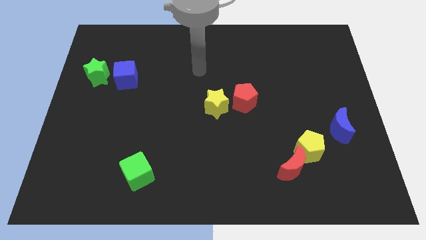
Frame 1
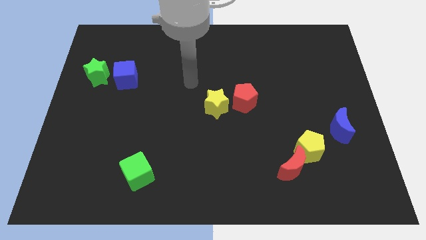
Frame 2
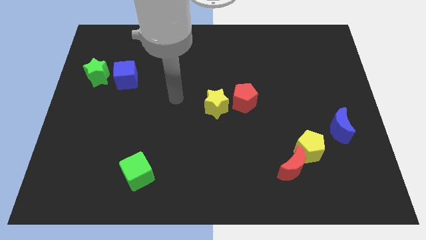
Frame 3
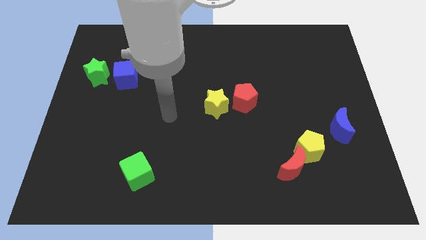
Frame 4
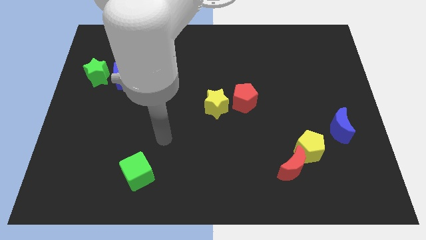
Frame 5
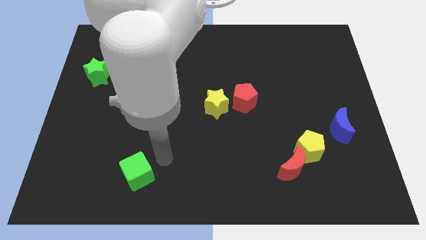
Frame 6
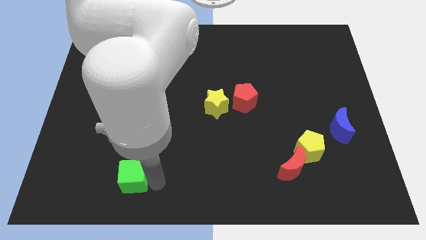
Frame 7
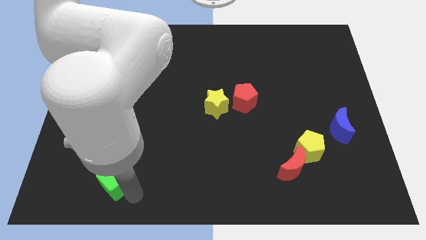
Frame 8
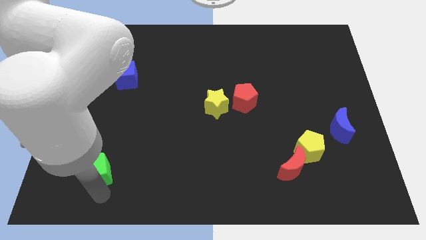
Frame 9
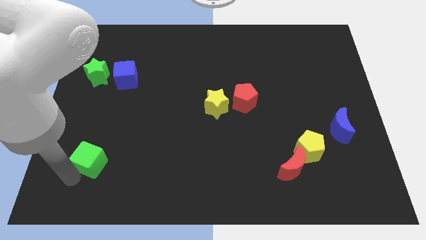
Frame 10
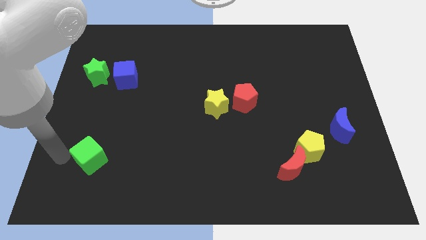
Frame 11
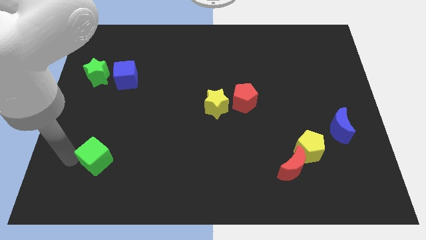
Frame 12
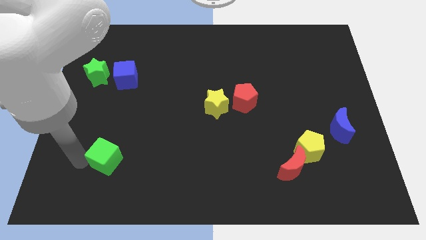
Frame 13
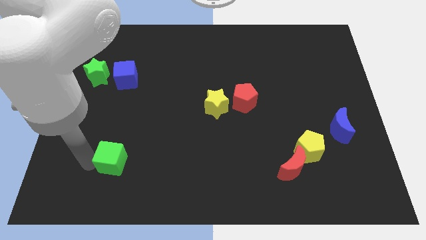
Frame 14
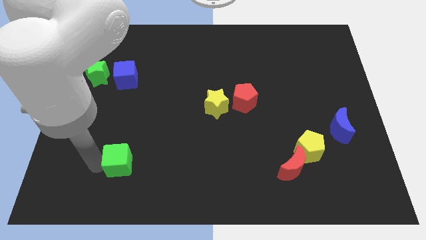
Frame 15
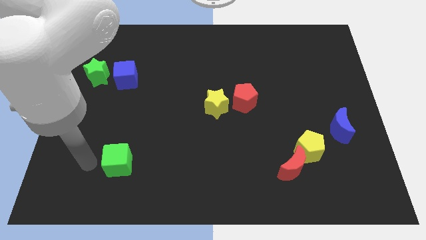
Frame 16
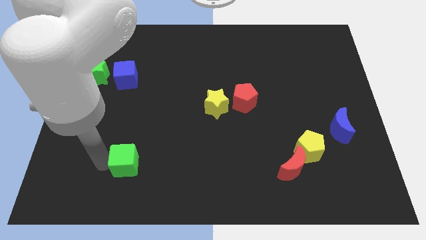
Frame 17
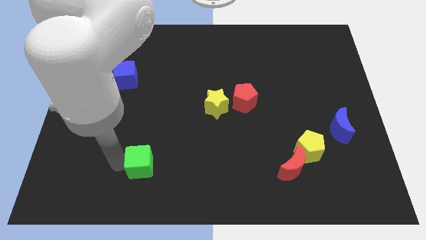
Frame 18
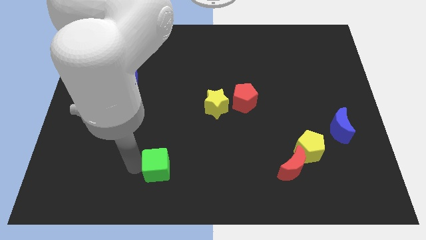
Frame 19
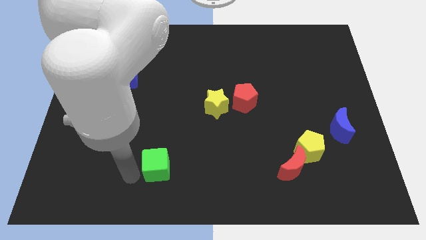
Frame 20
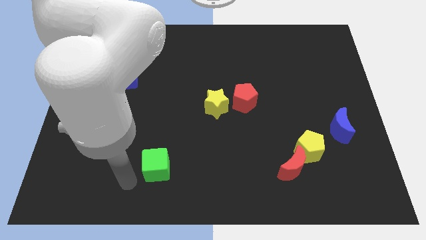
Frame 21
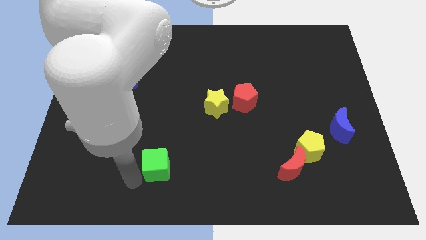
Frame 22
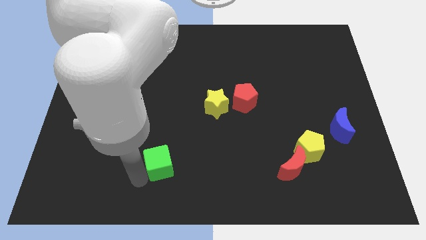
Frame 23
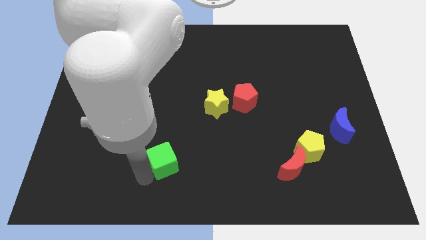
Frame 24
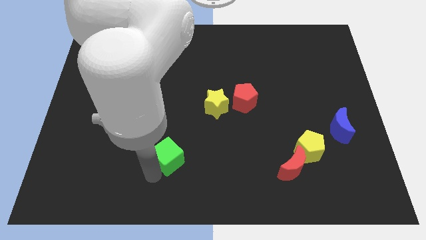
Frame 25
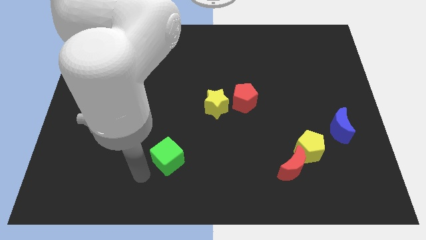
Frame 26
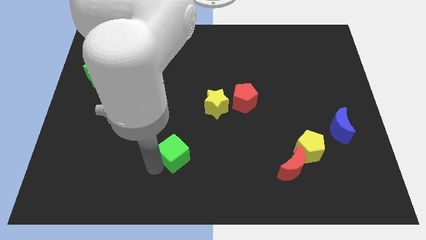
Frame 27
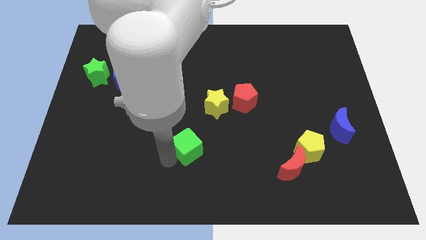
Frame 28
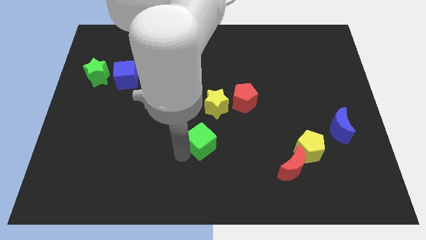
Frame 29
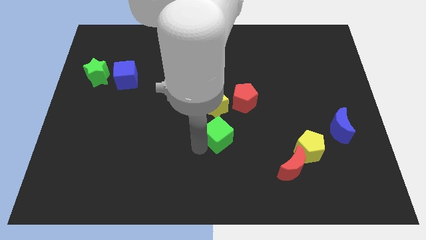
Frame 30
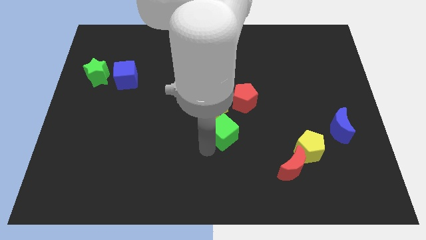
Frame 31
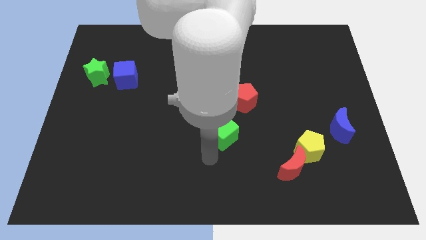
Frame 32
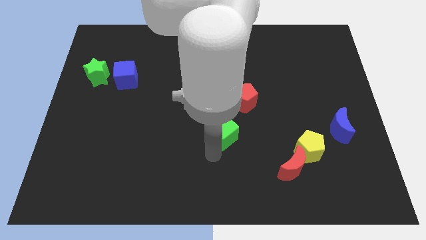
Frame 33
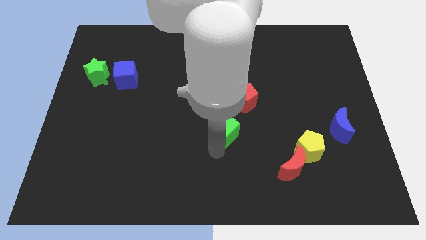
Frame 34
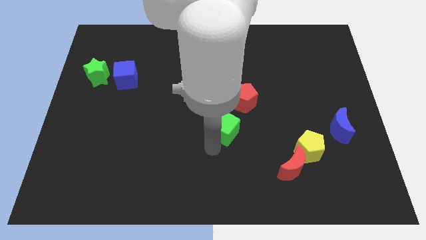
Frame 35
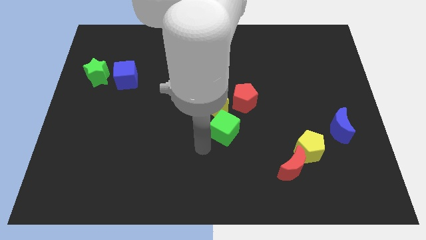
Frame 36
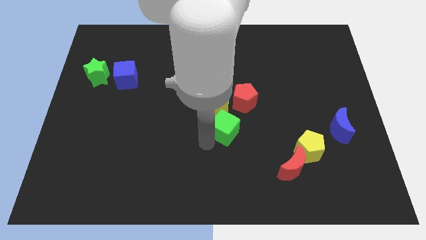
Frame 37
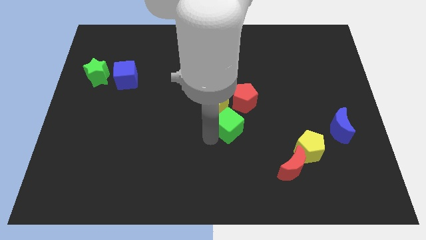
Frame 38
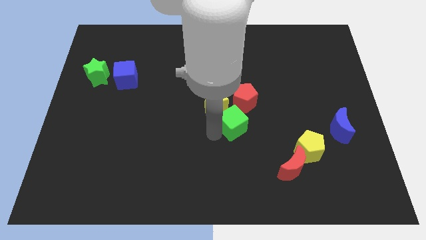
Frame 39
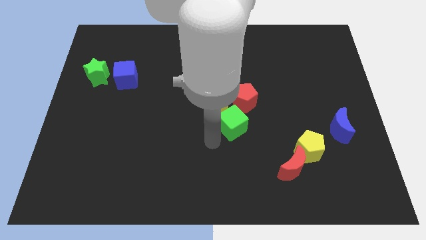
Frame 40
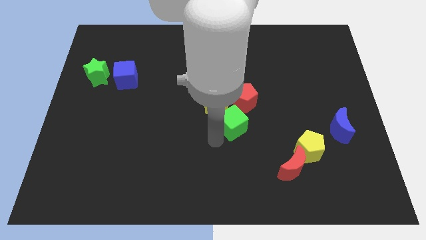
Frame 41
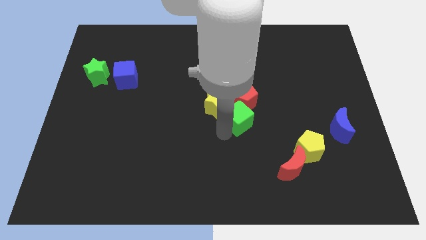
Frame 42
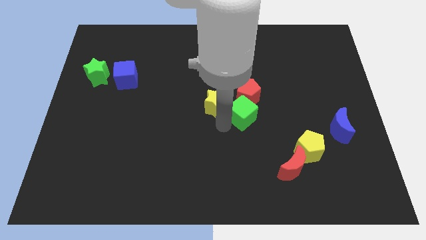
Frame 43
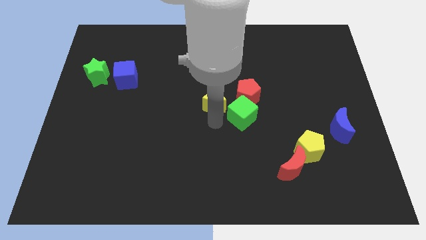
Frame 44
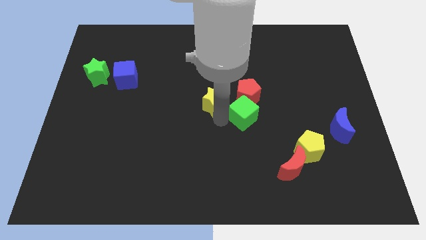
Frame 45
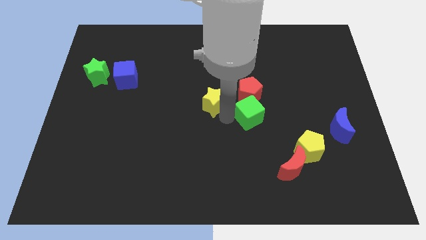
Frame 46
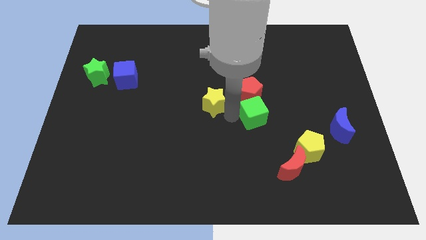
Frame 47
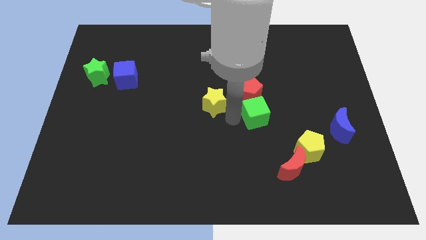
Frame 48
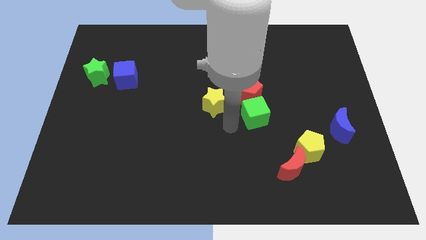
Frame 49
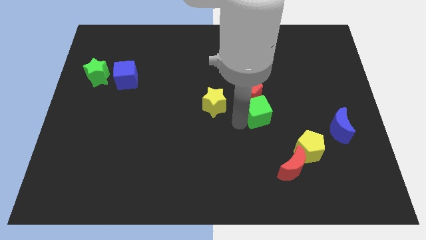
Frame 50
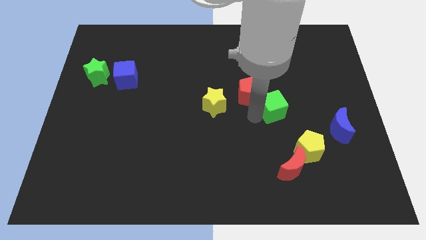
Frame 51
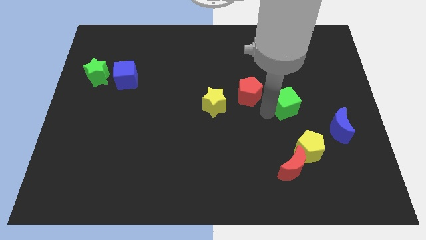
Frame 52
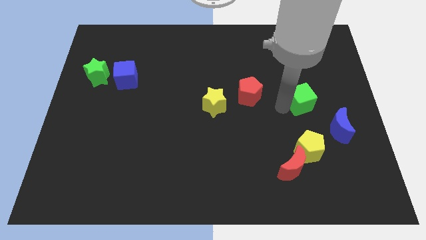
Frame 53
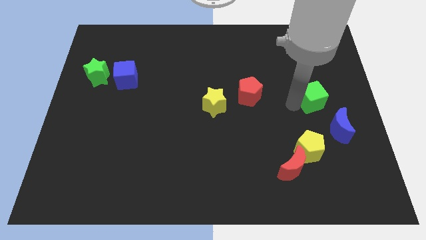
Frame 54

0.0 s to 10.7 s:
push the green cube to the top side of the blue moon

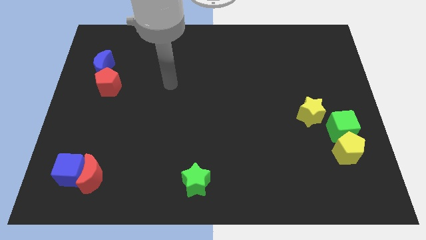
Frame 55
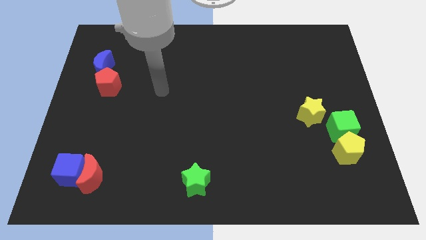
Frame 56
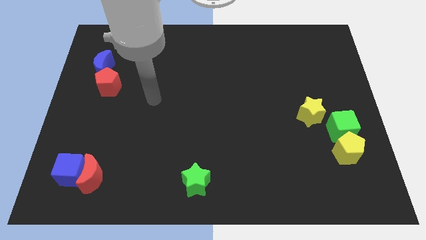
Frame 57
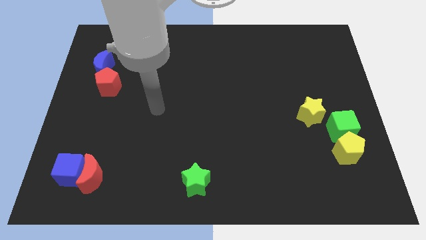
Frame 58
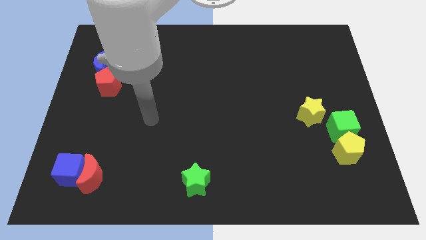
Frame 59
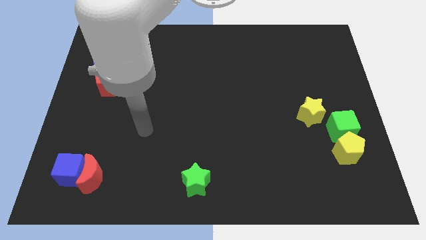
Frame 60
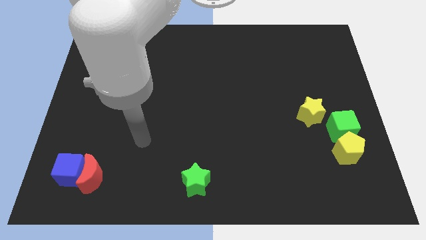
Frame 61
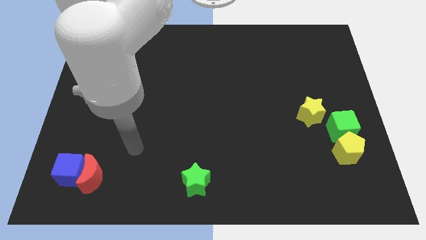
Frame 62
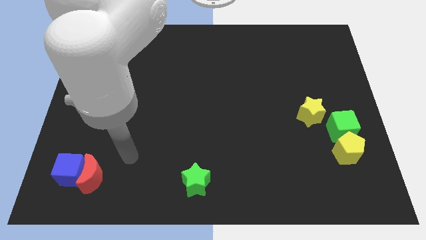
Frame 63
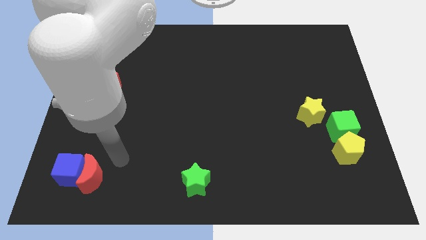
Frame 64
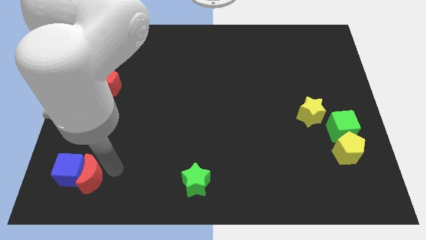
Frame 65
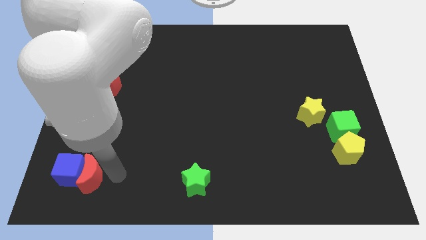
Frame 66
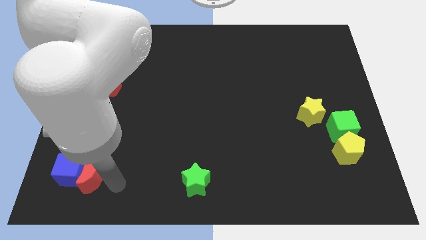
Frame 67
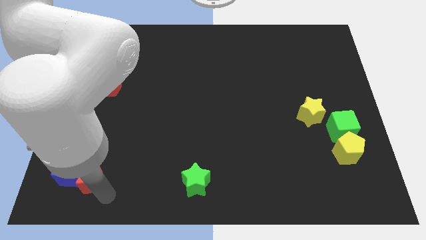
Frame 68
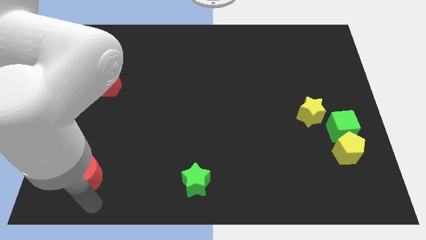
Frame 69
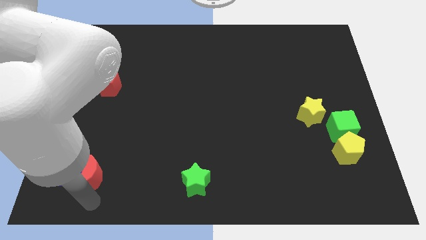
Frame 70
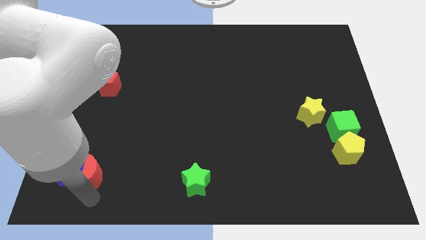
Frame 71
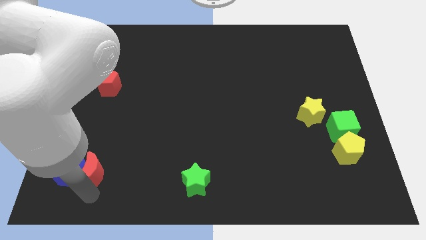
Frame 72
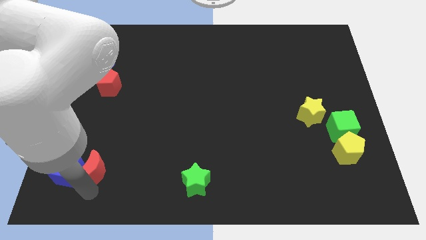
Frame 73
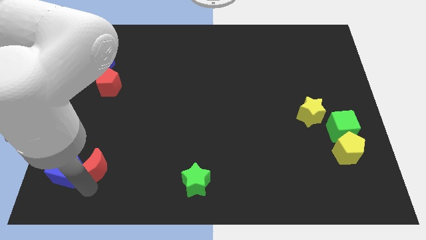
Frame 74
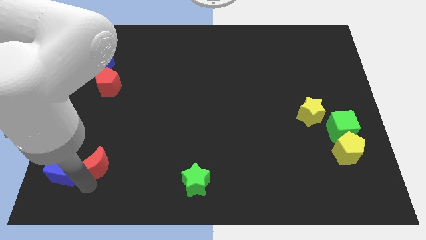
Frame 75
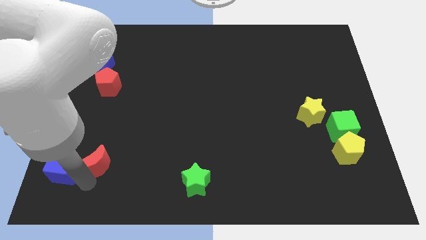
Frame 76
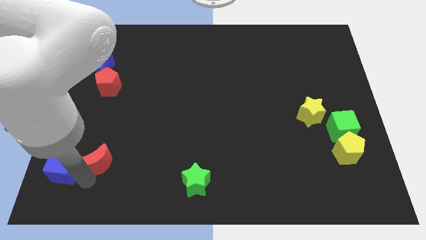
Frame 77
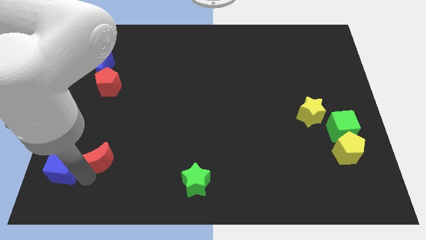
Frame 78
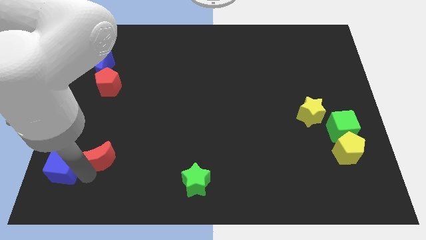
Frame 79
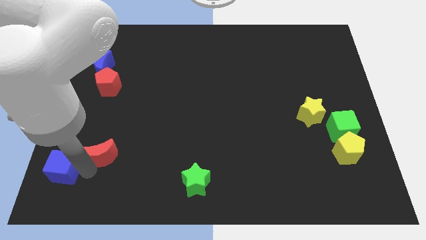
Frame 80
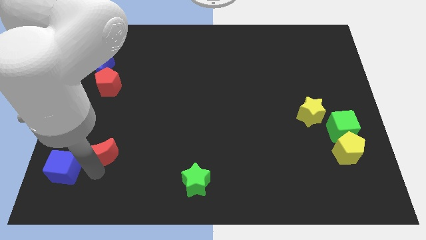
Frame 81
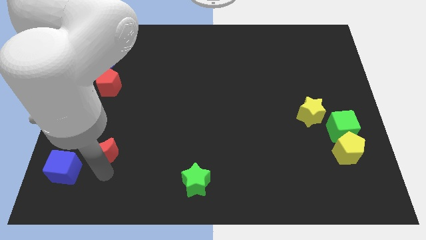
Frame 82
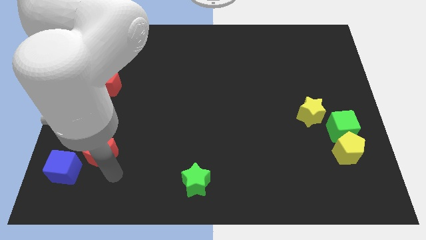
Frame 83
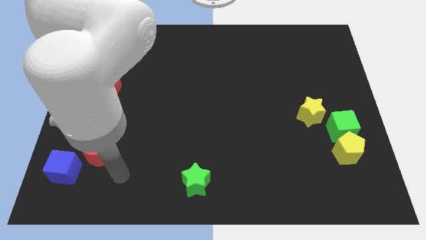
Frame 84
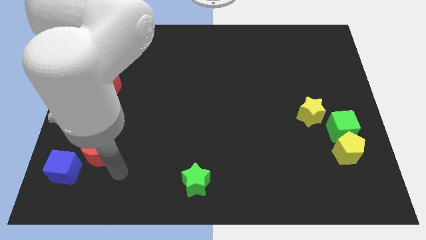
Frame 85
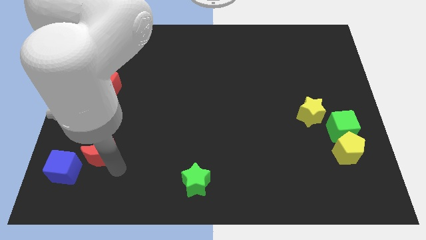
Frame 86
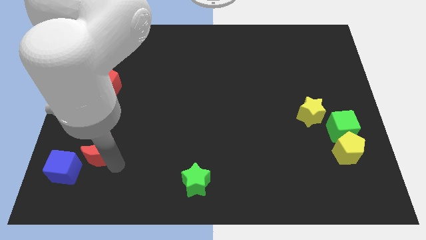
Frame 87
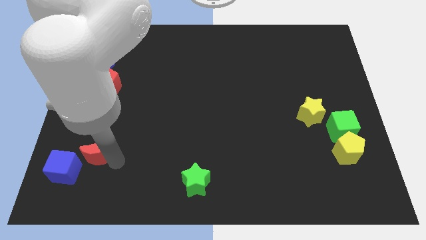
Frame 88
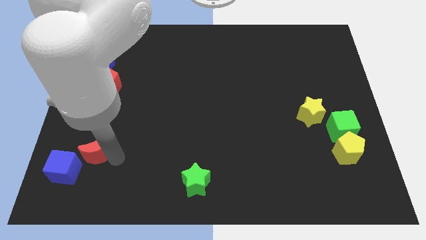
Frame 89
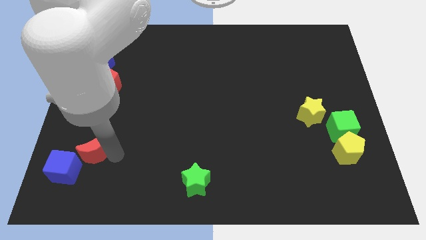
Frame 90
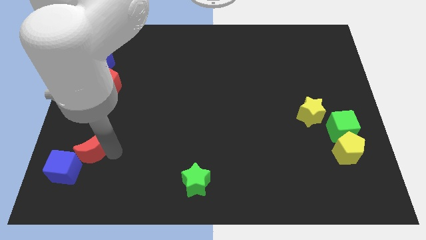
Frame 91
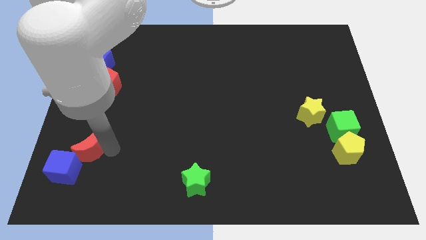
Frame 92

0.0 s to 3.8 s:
put the red moon to the top side of the blue cube
